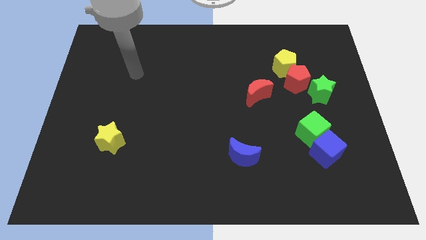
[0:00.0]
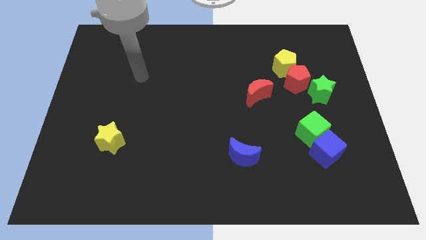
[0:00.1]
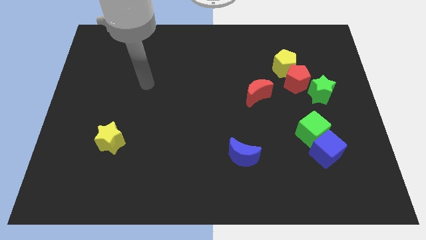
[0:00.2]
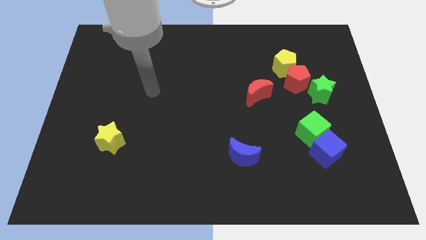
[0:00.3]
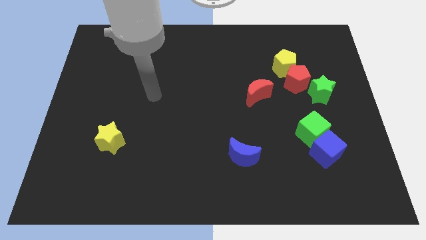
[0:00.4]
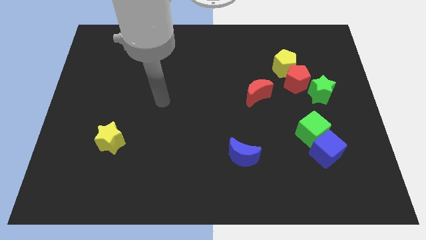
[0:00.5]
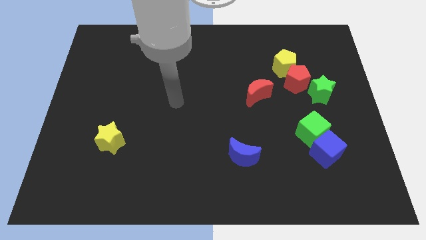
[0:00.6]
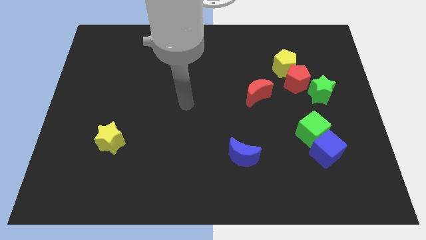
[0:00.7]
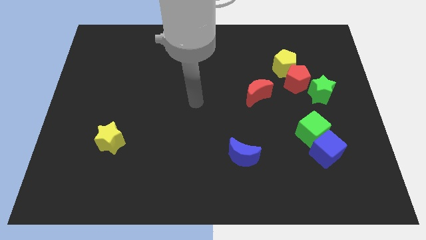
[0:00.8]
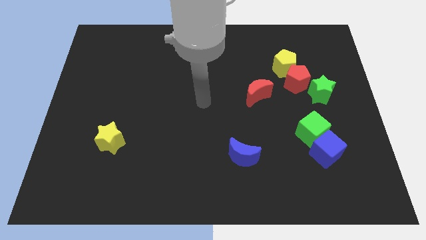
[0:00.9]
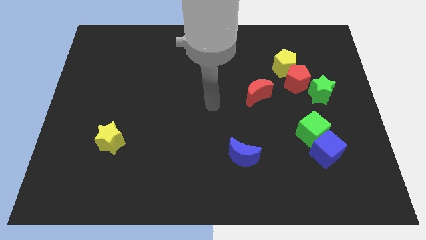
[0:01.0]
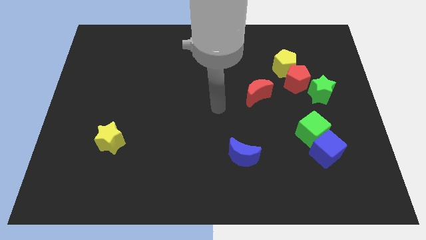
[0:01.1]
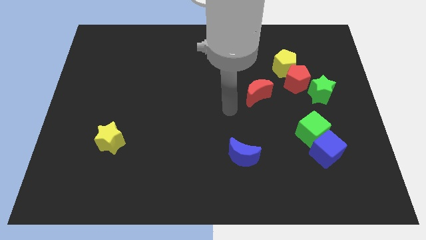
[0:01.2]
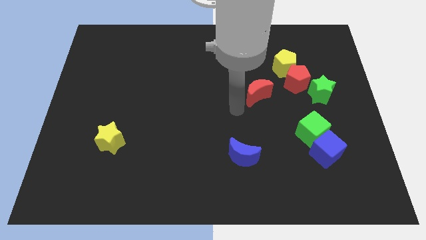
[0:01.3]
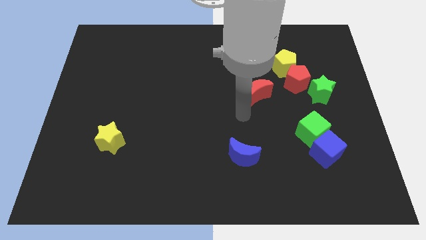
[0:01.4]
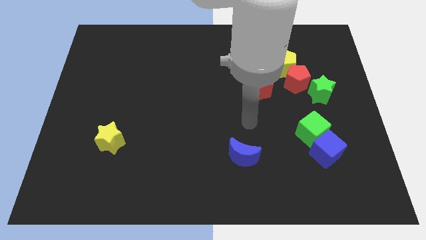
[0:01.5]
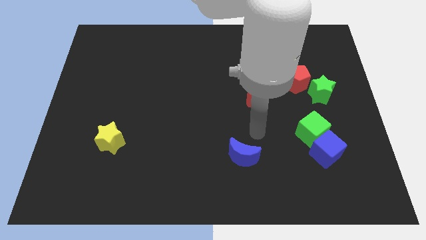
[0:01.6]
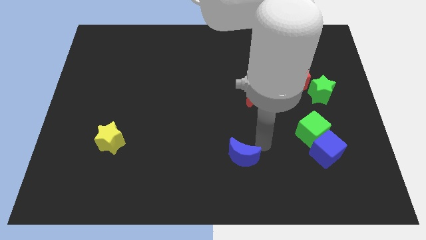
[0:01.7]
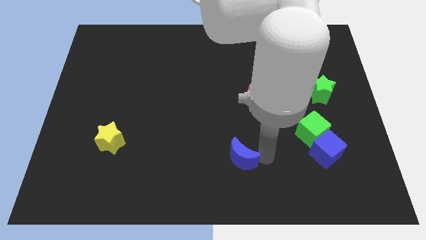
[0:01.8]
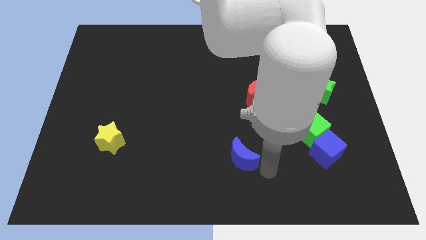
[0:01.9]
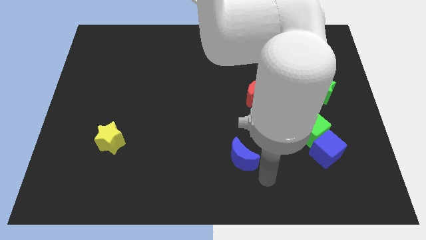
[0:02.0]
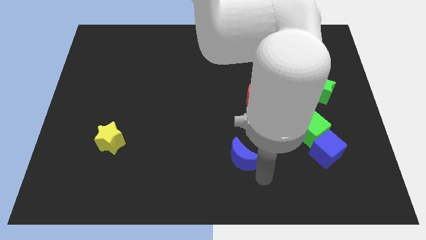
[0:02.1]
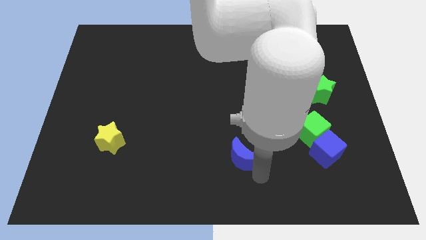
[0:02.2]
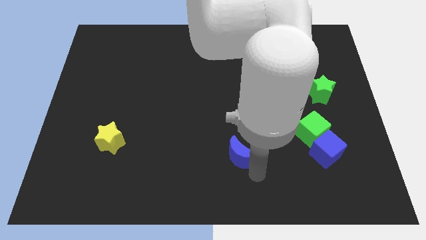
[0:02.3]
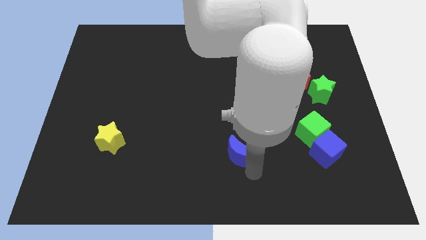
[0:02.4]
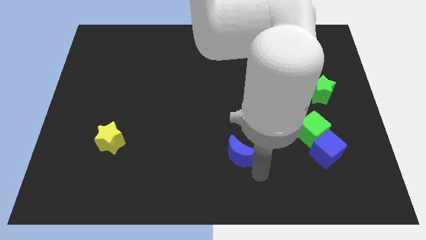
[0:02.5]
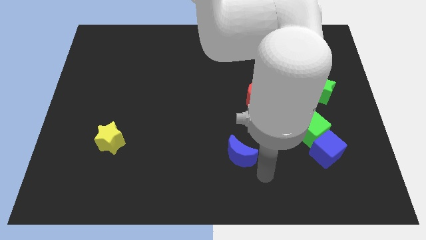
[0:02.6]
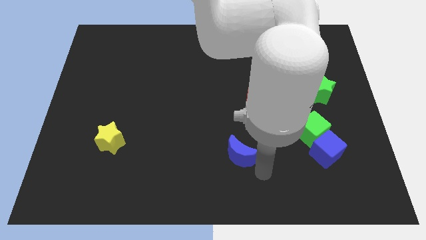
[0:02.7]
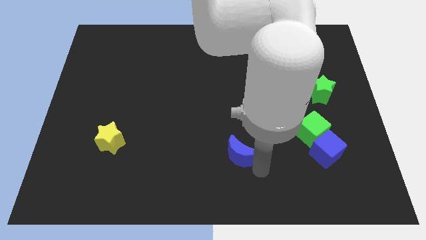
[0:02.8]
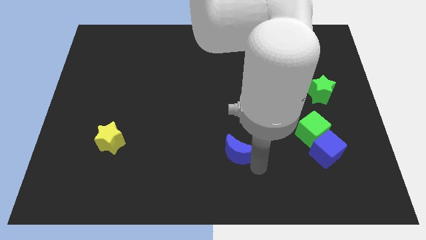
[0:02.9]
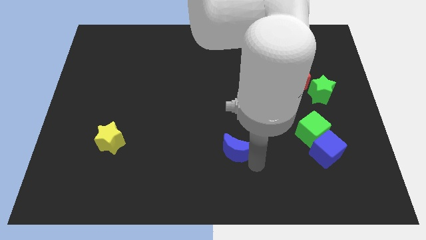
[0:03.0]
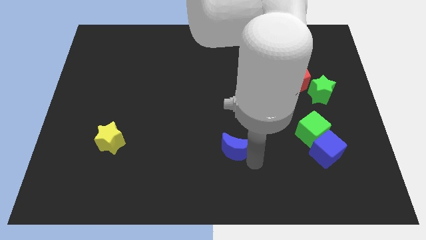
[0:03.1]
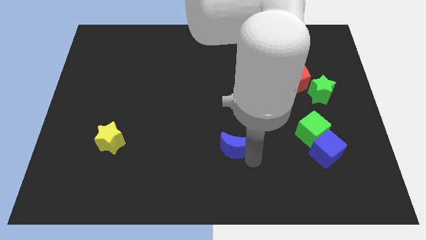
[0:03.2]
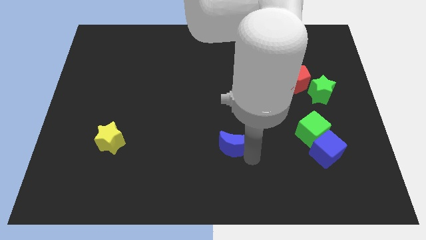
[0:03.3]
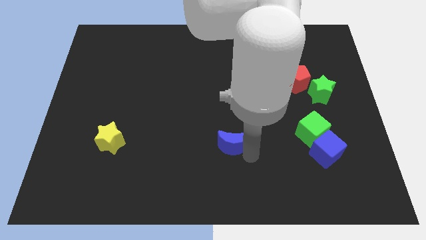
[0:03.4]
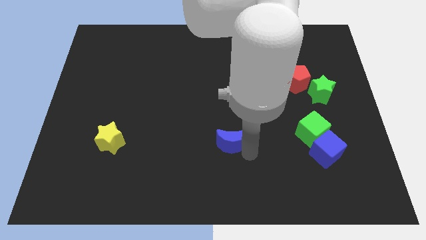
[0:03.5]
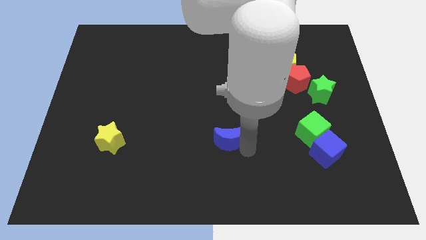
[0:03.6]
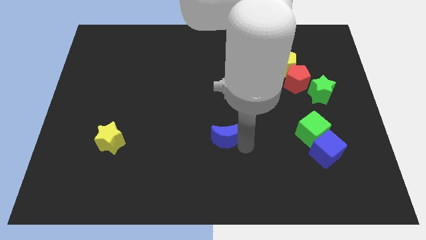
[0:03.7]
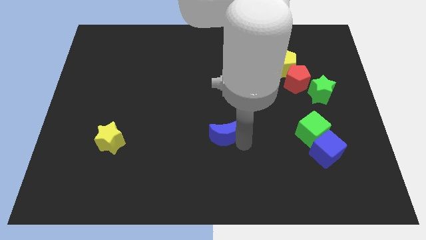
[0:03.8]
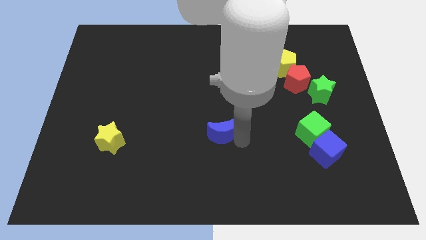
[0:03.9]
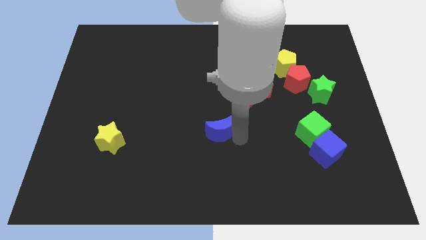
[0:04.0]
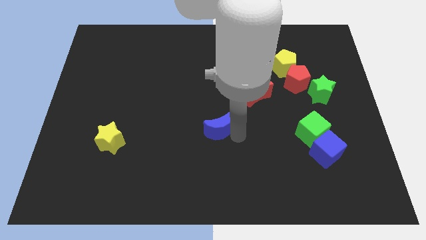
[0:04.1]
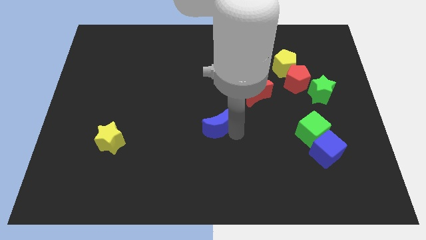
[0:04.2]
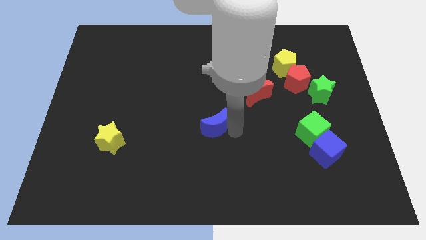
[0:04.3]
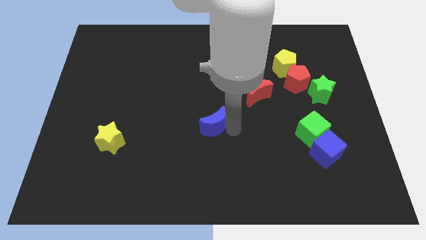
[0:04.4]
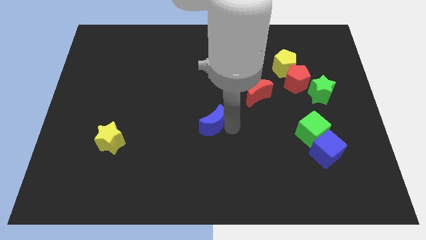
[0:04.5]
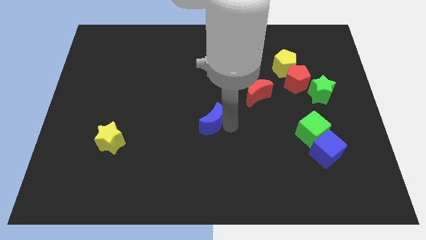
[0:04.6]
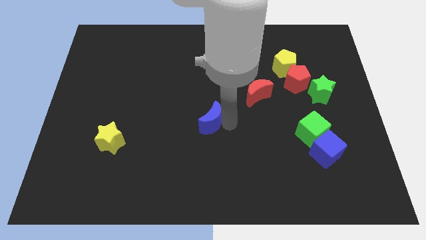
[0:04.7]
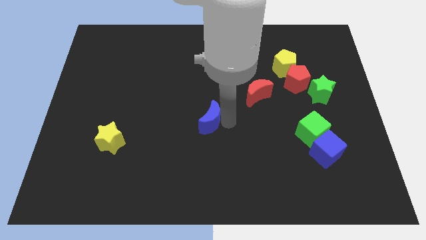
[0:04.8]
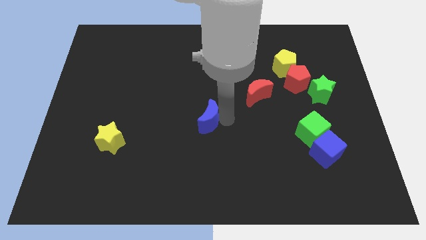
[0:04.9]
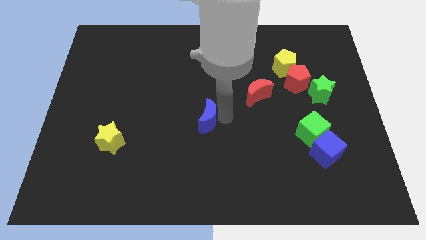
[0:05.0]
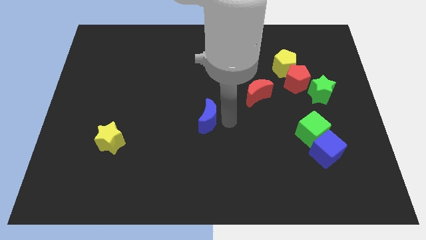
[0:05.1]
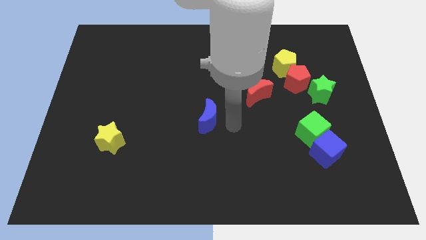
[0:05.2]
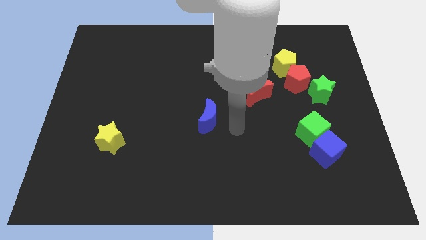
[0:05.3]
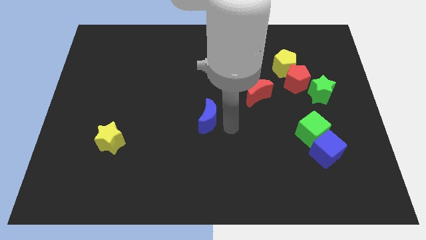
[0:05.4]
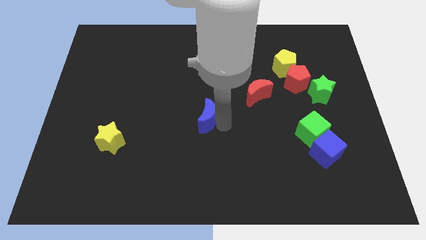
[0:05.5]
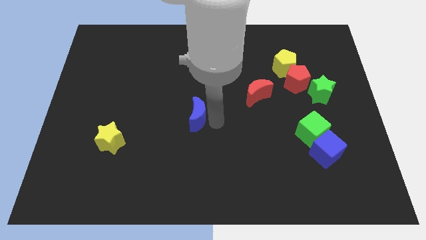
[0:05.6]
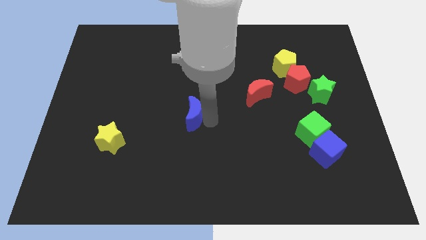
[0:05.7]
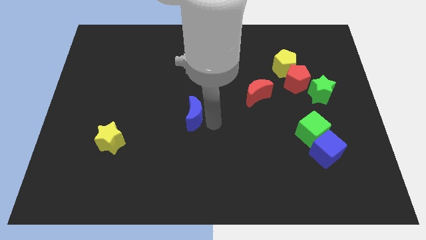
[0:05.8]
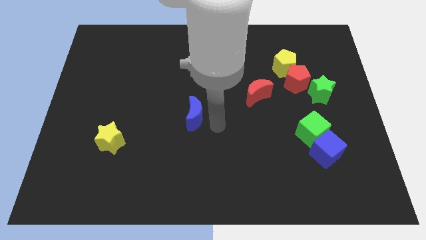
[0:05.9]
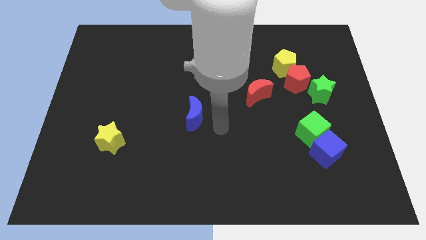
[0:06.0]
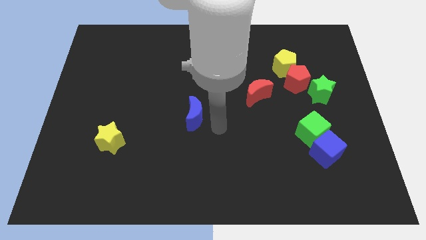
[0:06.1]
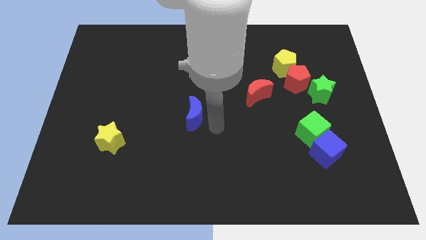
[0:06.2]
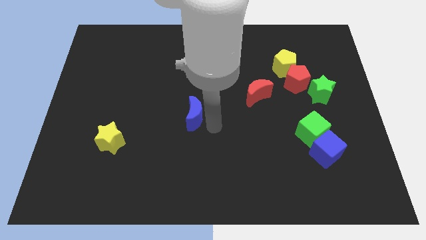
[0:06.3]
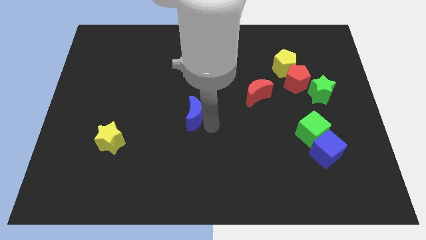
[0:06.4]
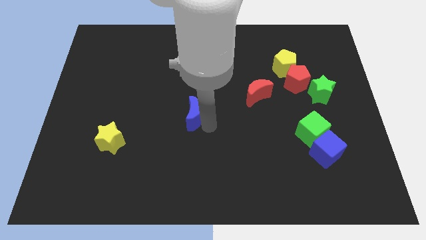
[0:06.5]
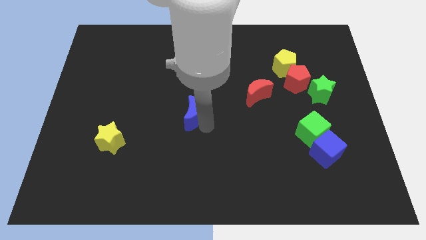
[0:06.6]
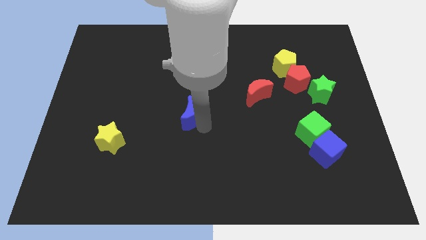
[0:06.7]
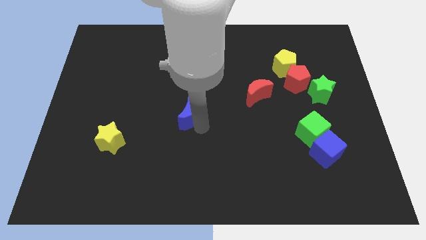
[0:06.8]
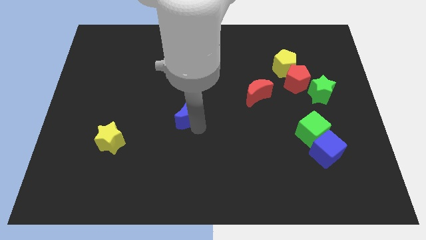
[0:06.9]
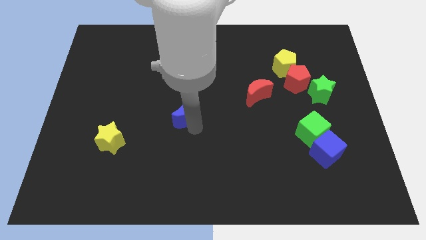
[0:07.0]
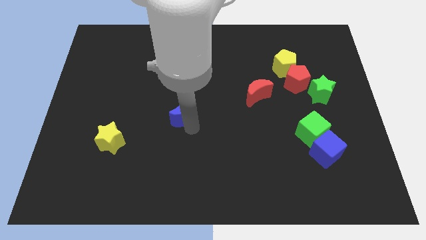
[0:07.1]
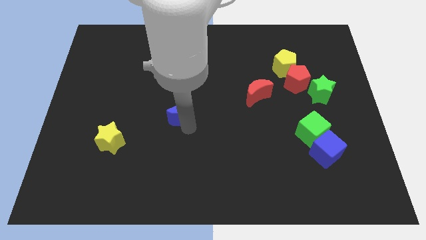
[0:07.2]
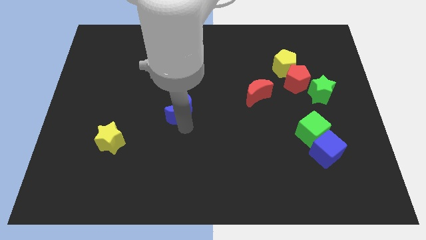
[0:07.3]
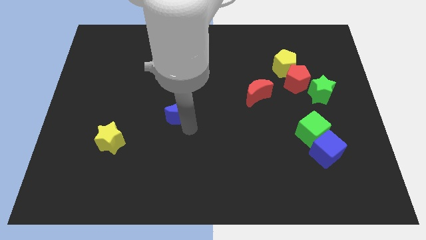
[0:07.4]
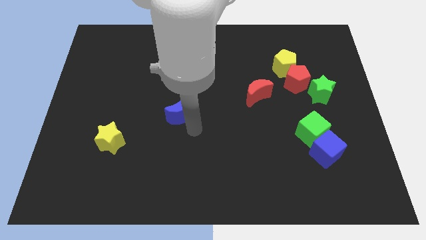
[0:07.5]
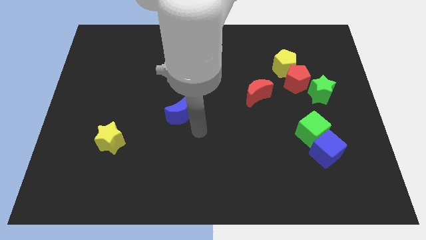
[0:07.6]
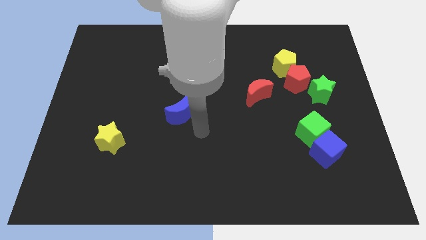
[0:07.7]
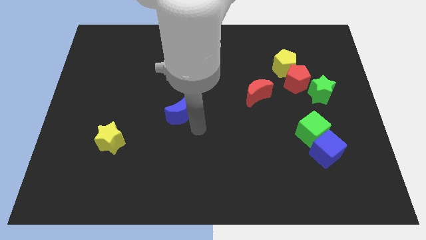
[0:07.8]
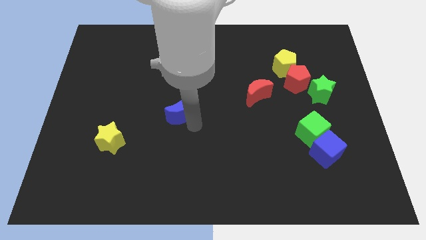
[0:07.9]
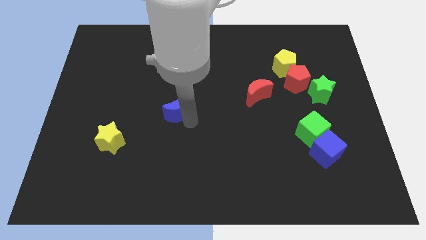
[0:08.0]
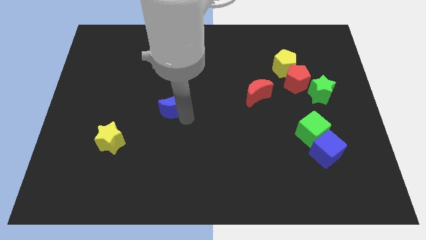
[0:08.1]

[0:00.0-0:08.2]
move the blue moon diagonally upwards and left
